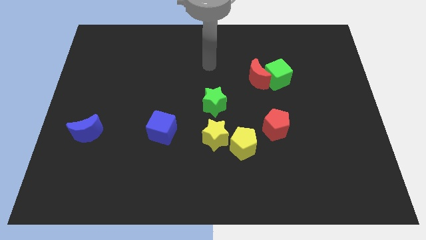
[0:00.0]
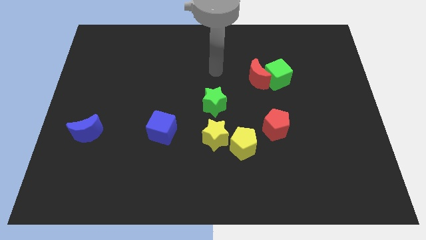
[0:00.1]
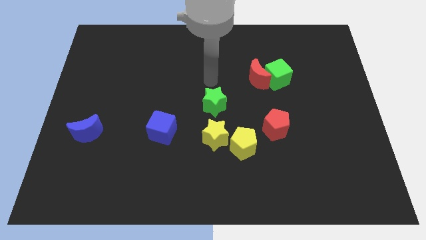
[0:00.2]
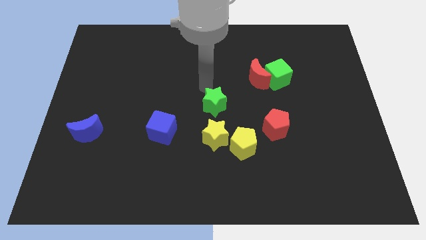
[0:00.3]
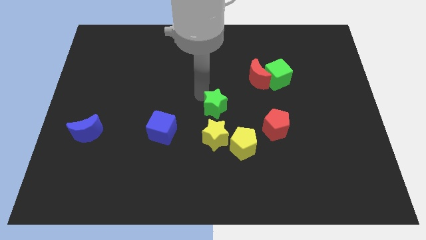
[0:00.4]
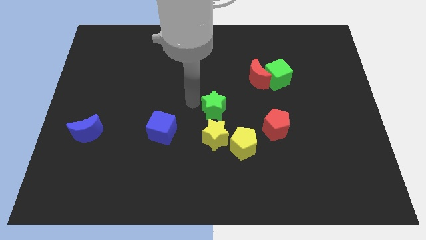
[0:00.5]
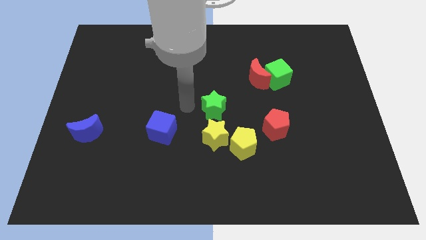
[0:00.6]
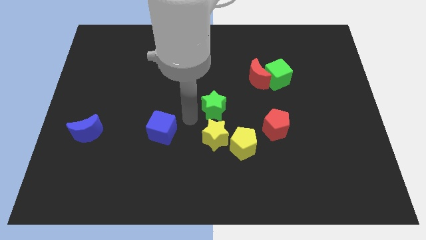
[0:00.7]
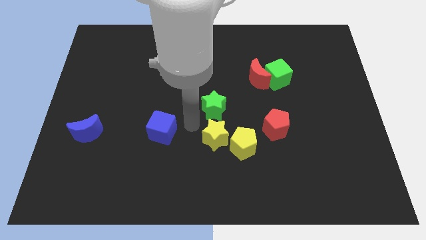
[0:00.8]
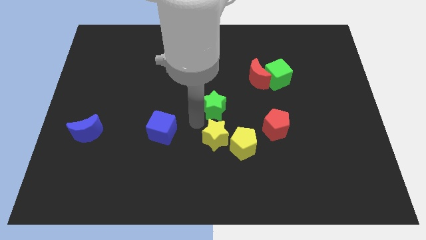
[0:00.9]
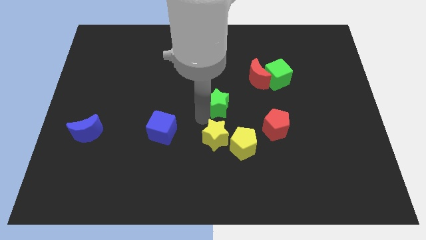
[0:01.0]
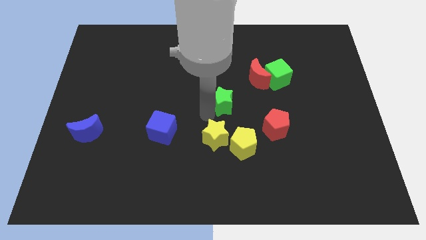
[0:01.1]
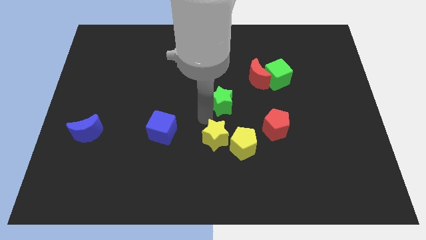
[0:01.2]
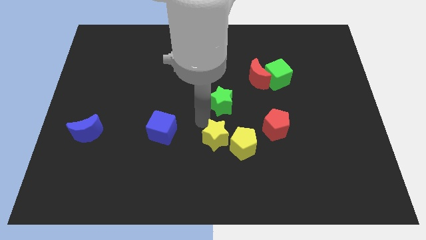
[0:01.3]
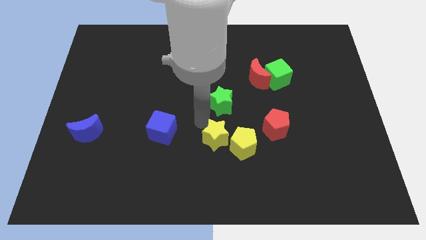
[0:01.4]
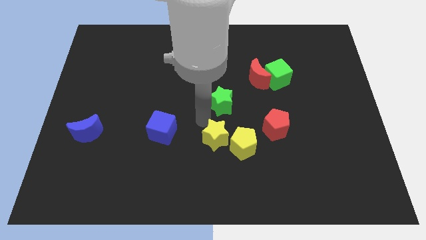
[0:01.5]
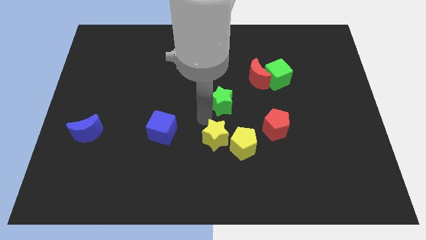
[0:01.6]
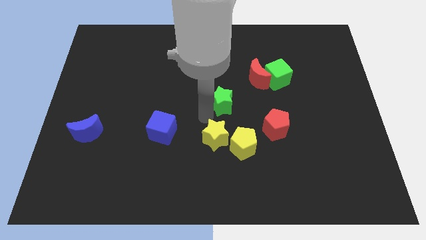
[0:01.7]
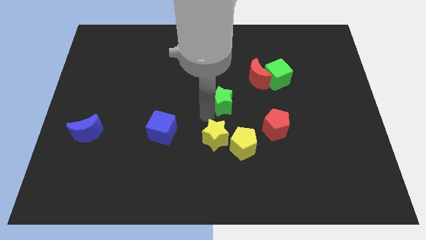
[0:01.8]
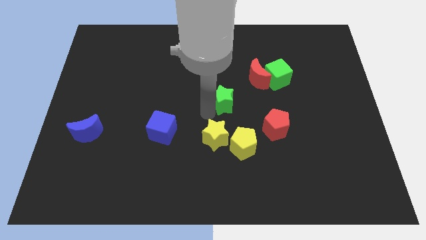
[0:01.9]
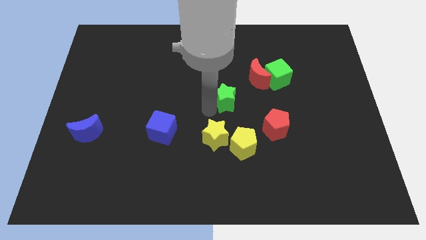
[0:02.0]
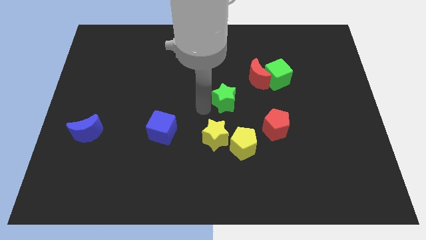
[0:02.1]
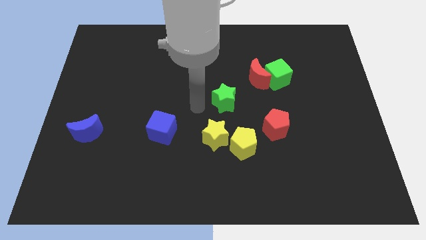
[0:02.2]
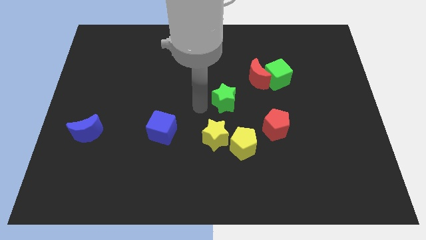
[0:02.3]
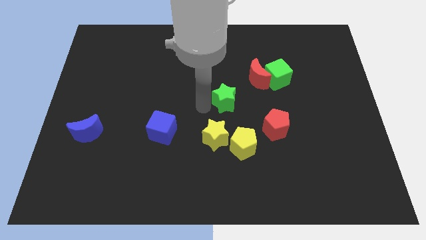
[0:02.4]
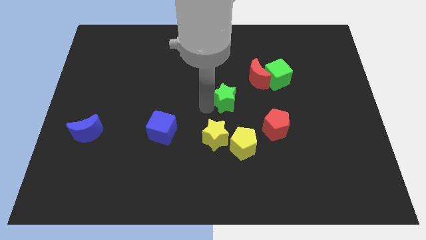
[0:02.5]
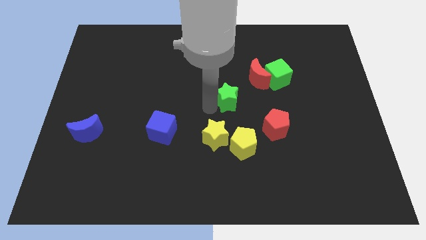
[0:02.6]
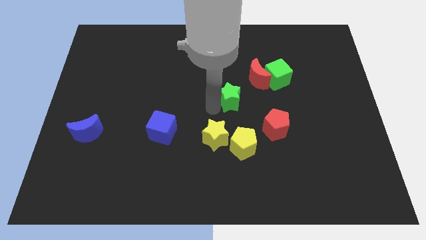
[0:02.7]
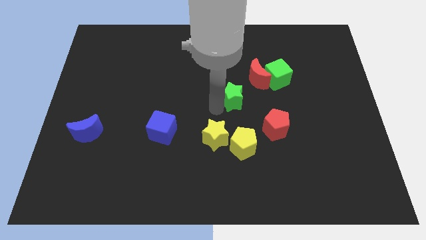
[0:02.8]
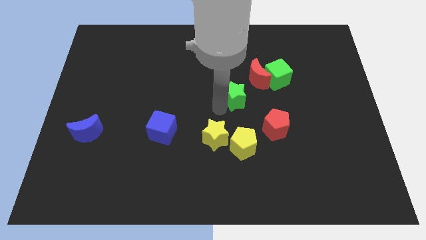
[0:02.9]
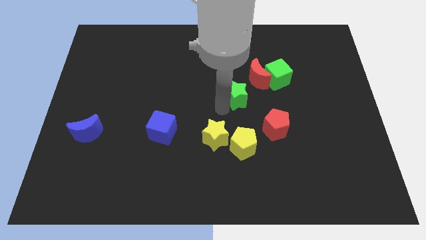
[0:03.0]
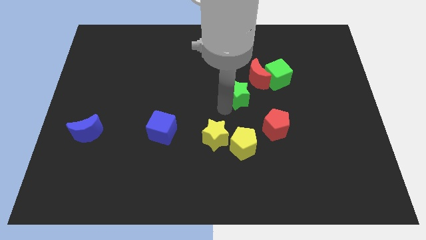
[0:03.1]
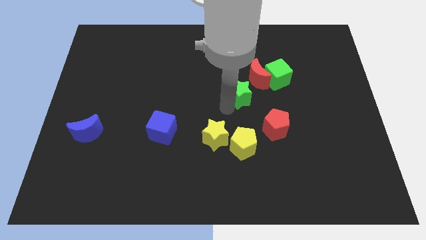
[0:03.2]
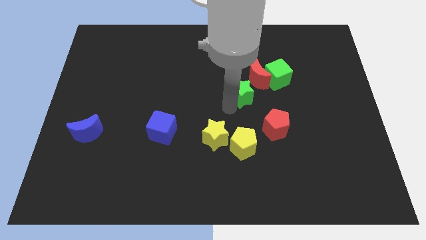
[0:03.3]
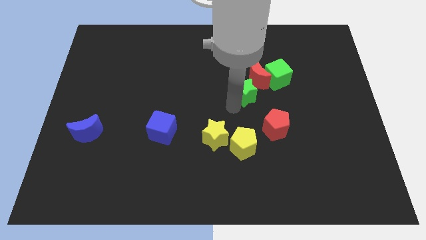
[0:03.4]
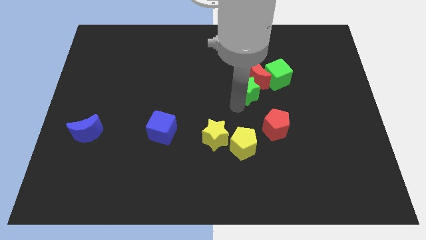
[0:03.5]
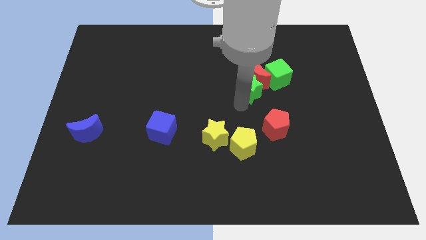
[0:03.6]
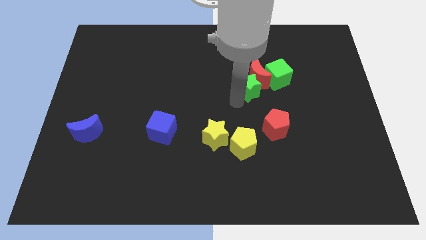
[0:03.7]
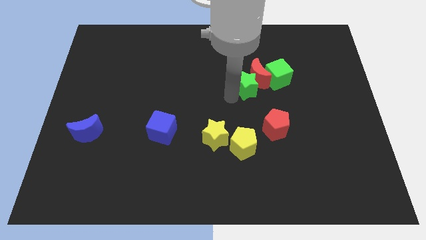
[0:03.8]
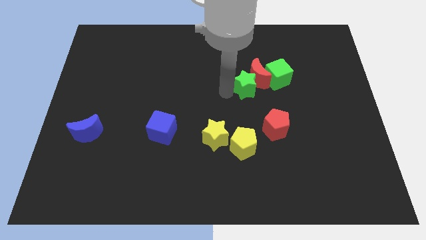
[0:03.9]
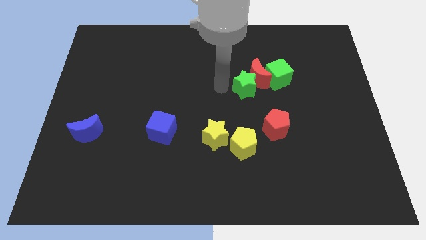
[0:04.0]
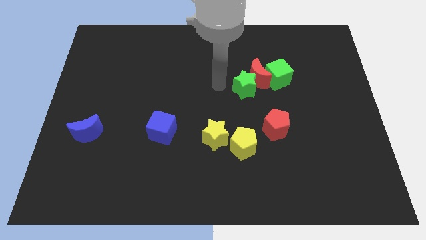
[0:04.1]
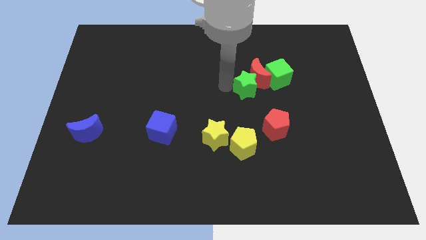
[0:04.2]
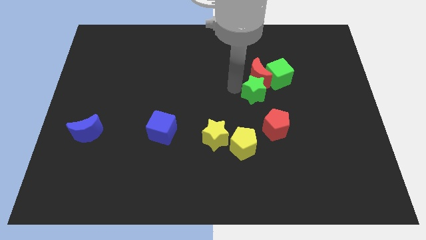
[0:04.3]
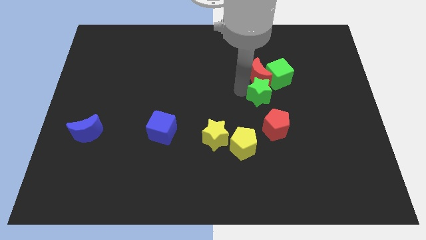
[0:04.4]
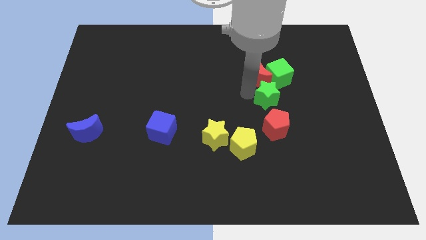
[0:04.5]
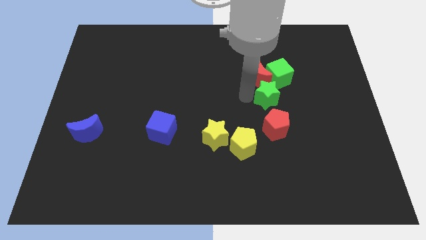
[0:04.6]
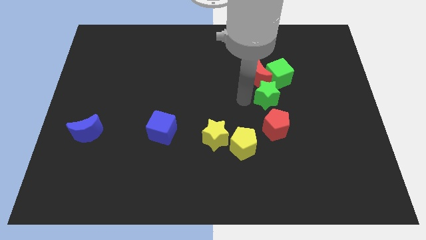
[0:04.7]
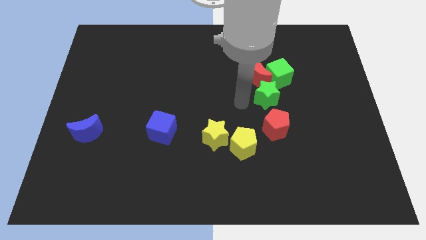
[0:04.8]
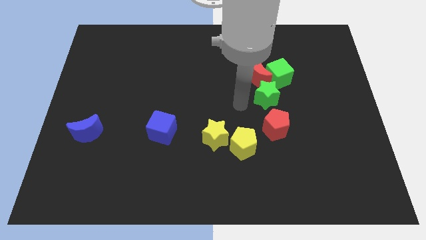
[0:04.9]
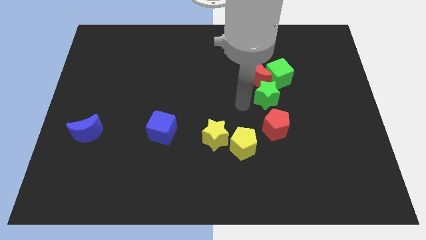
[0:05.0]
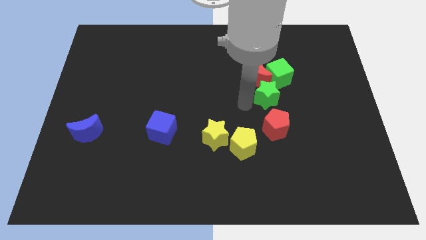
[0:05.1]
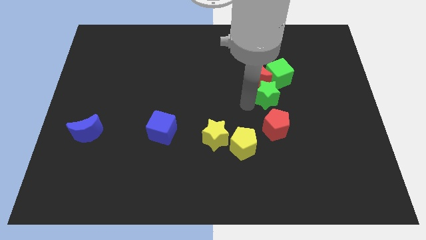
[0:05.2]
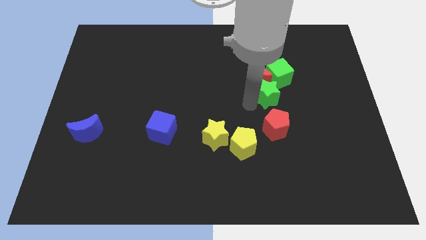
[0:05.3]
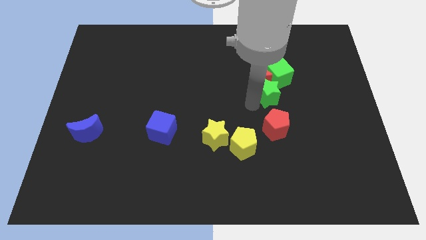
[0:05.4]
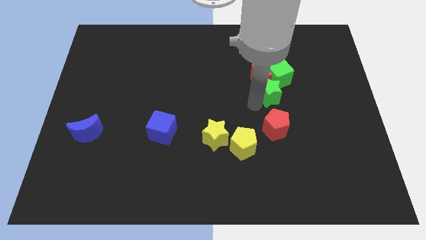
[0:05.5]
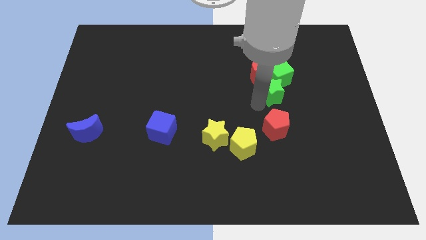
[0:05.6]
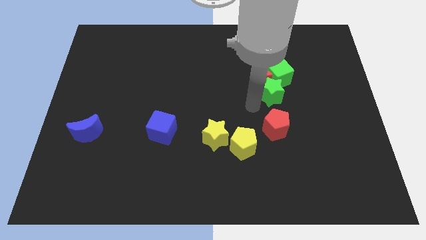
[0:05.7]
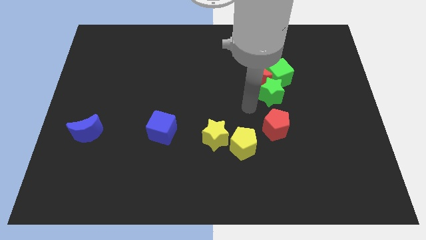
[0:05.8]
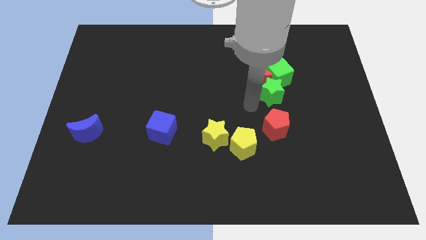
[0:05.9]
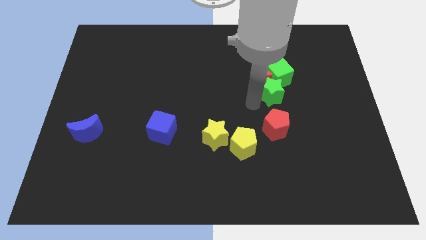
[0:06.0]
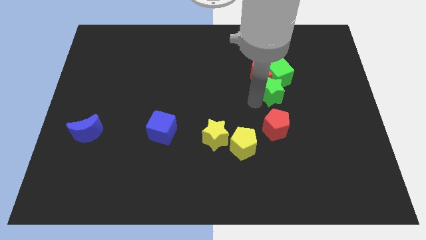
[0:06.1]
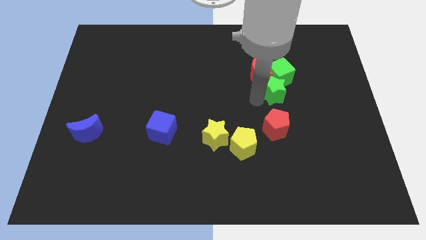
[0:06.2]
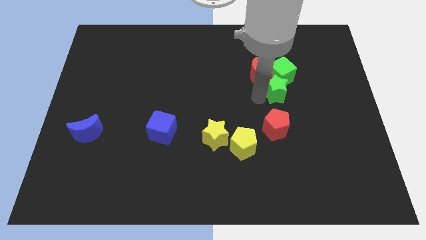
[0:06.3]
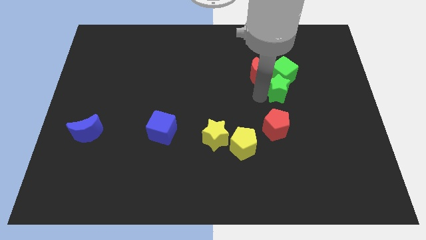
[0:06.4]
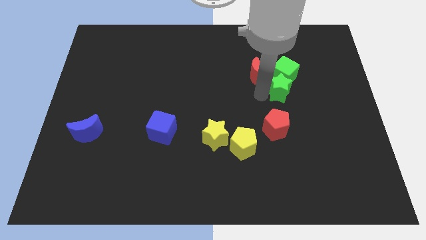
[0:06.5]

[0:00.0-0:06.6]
move the green star just right of the red moon
